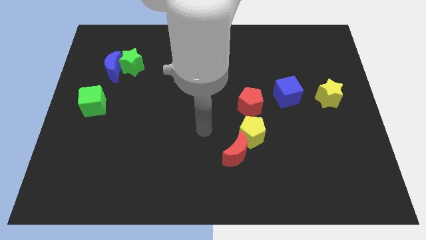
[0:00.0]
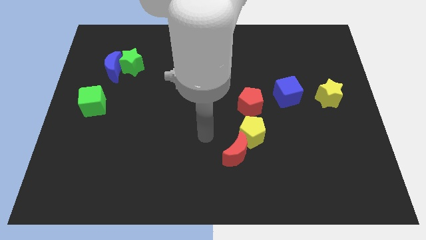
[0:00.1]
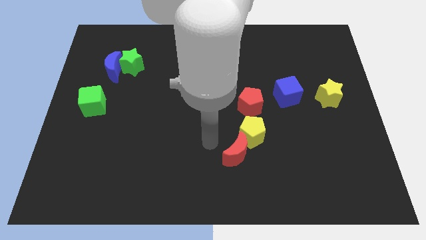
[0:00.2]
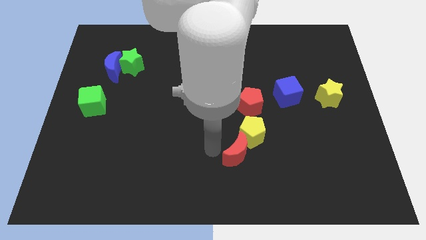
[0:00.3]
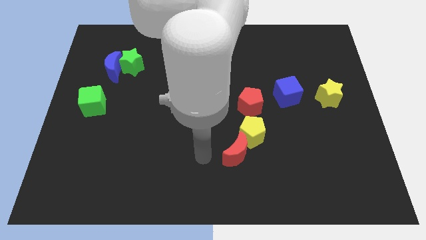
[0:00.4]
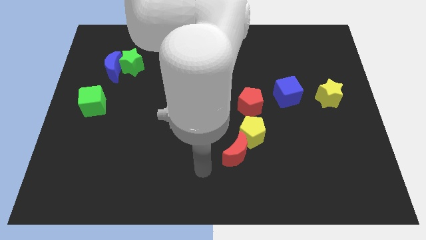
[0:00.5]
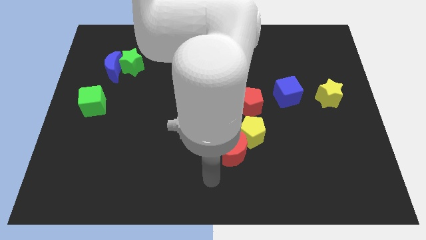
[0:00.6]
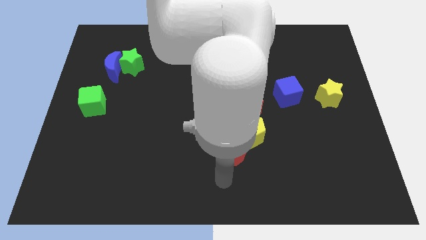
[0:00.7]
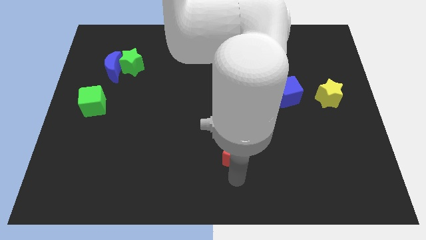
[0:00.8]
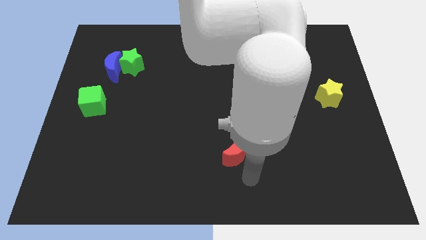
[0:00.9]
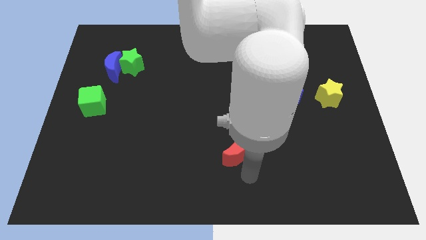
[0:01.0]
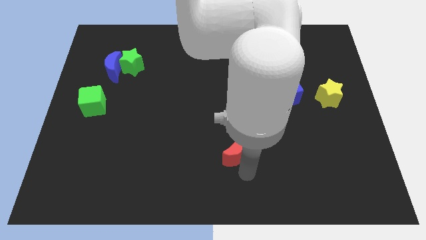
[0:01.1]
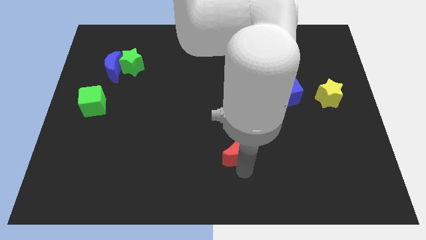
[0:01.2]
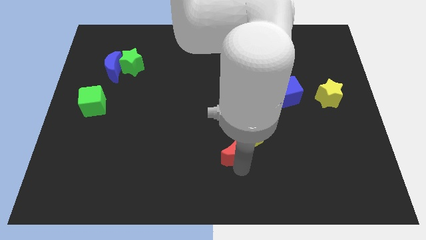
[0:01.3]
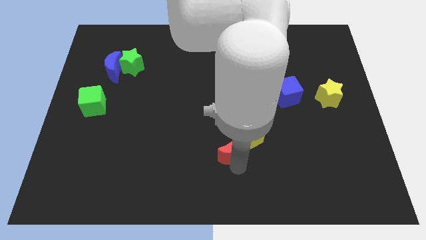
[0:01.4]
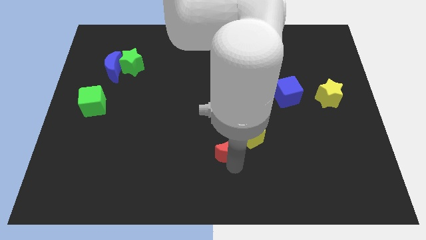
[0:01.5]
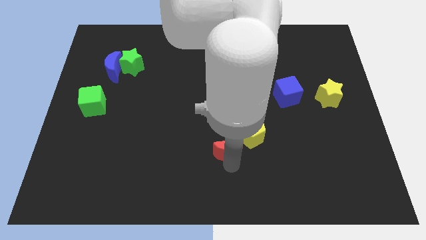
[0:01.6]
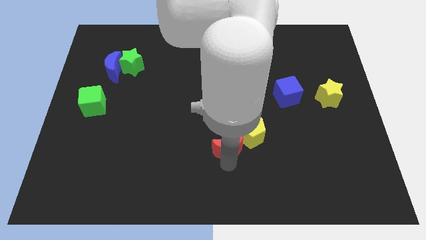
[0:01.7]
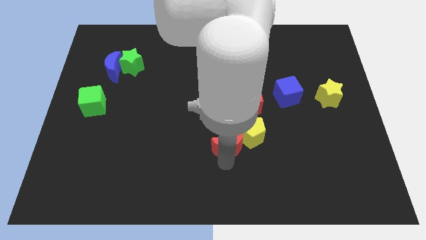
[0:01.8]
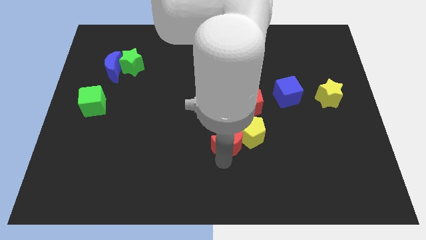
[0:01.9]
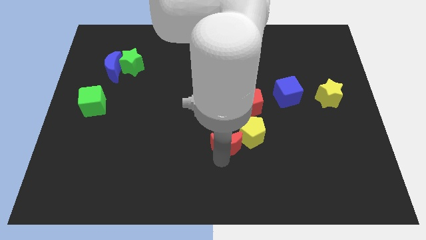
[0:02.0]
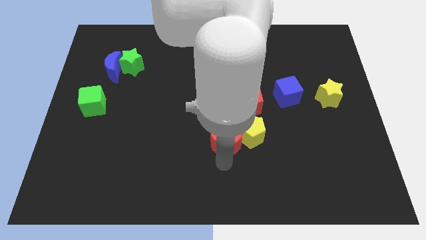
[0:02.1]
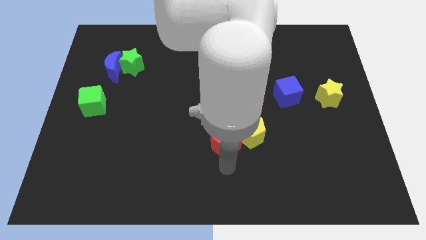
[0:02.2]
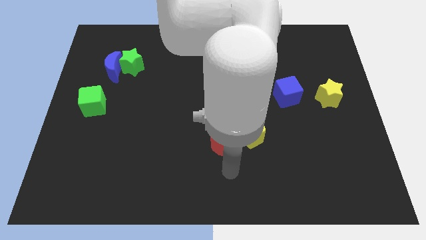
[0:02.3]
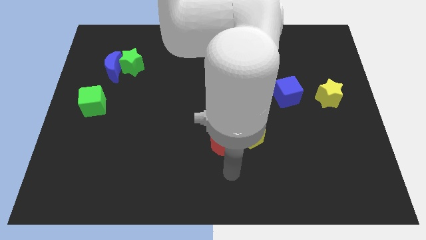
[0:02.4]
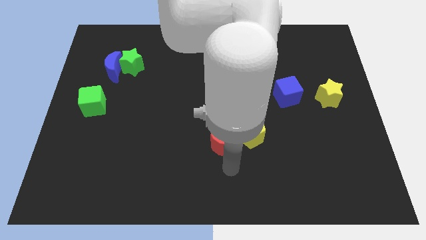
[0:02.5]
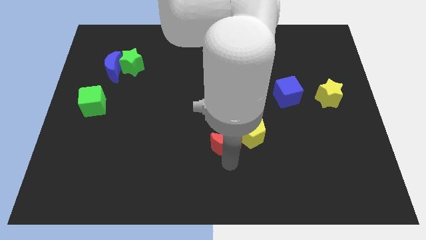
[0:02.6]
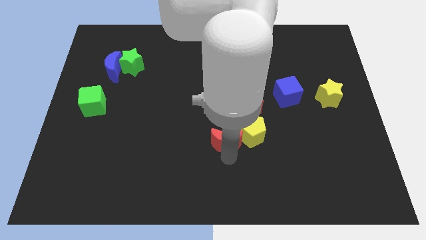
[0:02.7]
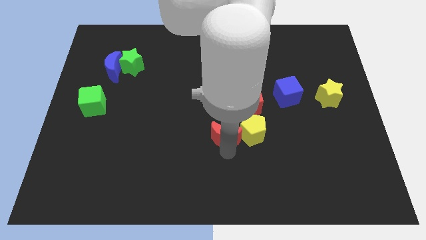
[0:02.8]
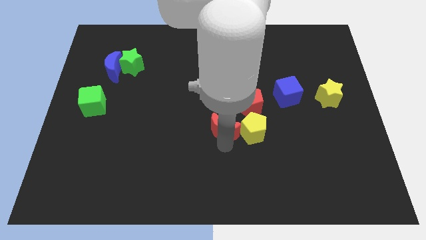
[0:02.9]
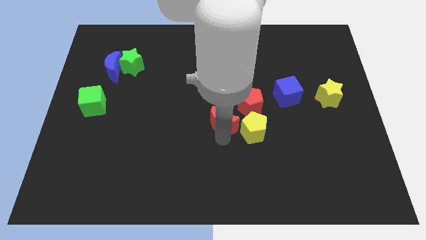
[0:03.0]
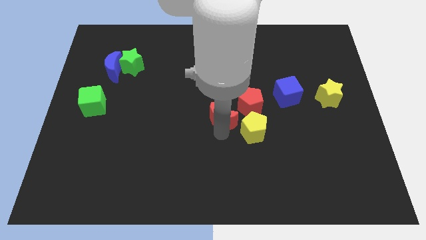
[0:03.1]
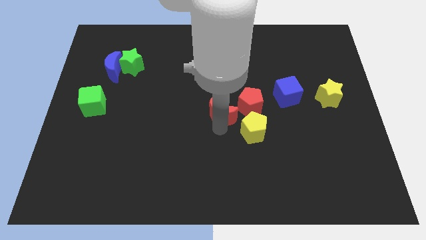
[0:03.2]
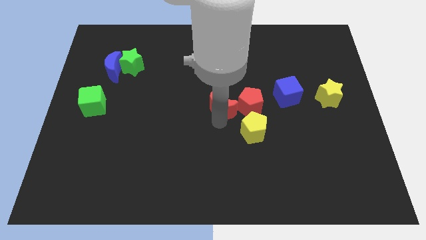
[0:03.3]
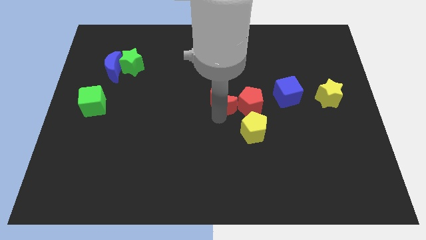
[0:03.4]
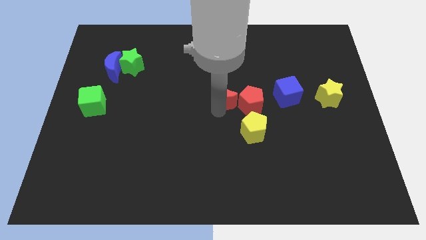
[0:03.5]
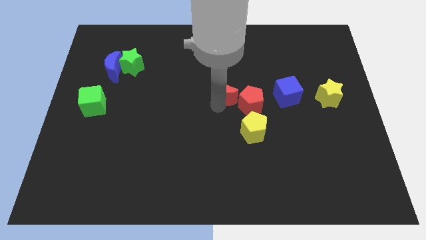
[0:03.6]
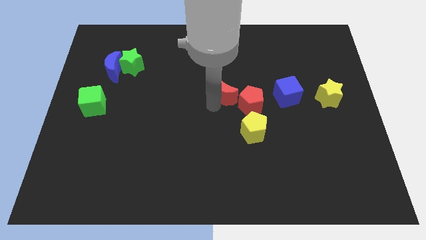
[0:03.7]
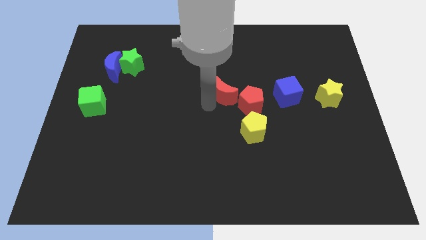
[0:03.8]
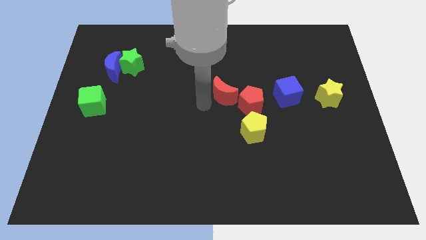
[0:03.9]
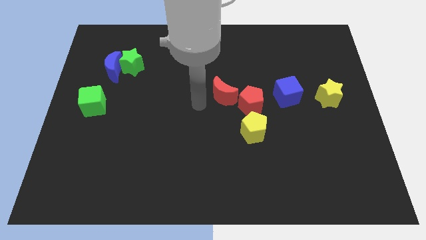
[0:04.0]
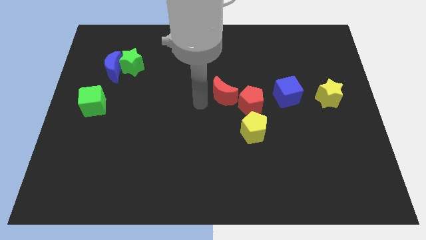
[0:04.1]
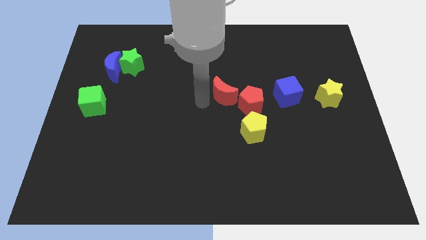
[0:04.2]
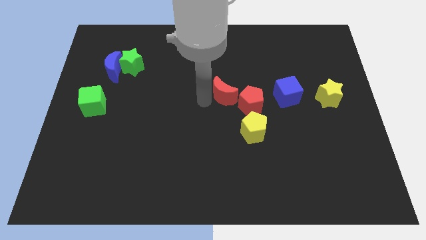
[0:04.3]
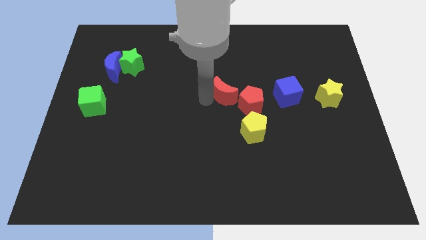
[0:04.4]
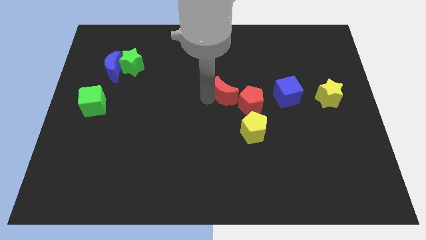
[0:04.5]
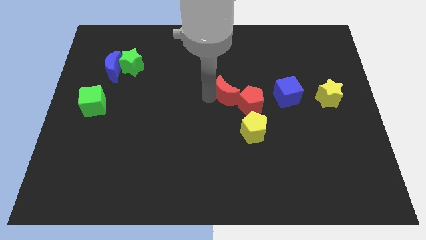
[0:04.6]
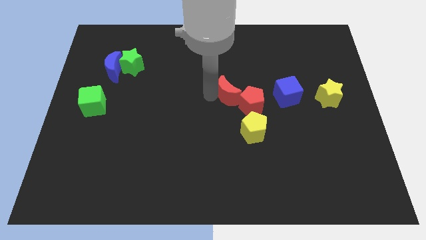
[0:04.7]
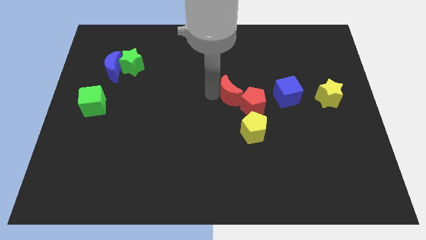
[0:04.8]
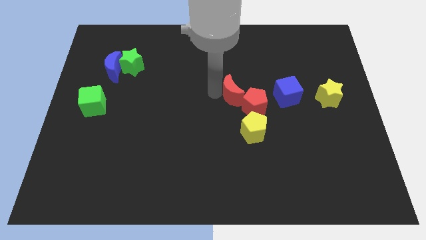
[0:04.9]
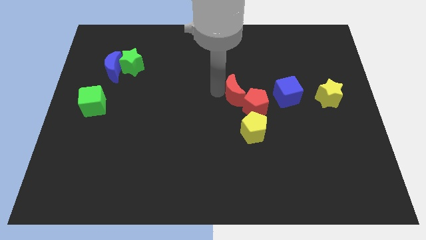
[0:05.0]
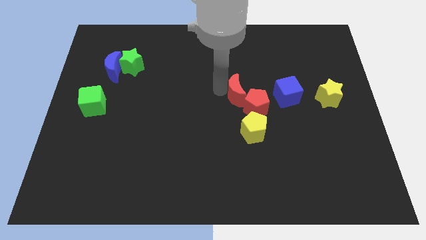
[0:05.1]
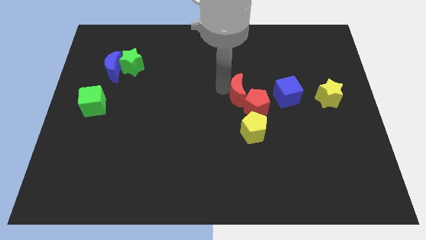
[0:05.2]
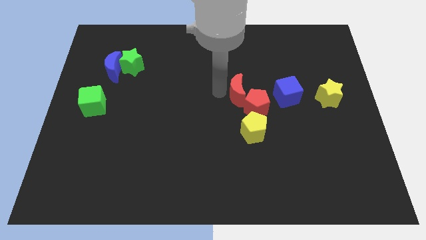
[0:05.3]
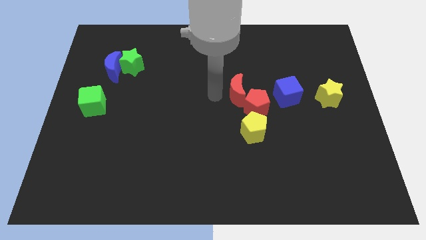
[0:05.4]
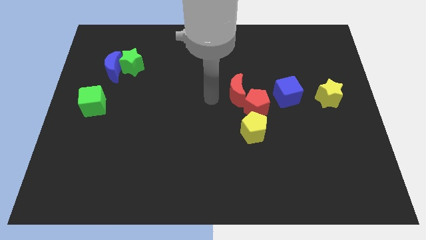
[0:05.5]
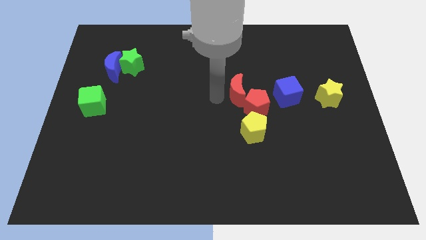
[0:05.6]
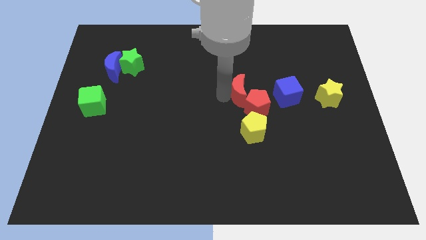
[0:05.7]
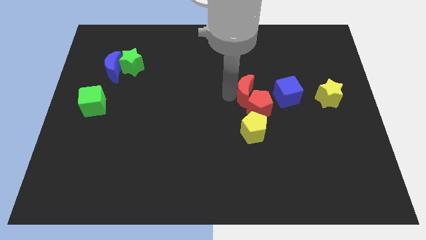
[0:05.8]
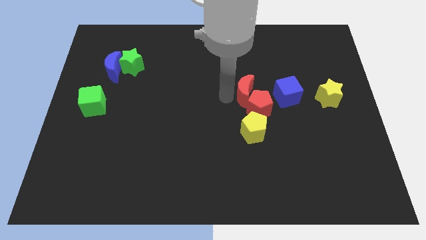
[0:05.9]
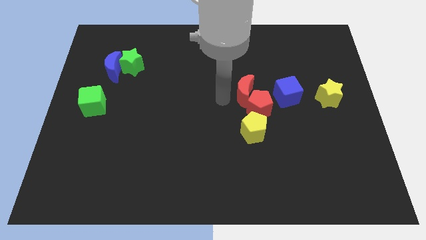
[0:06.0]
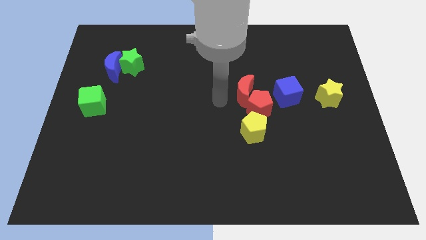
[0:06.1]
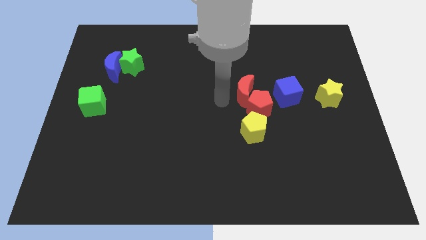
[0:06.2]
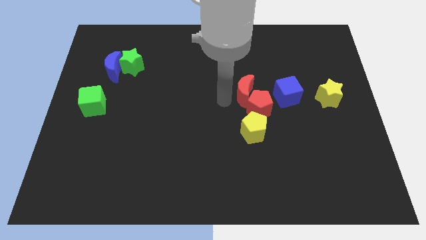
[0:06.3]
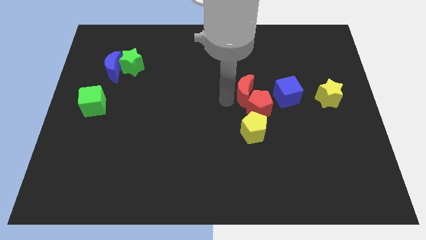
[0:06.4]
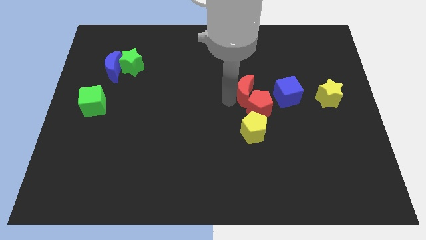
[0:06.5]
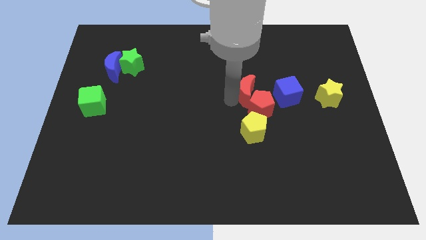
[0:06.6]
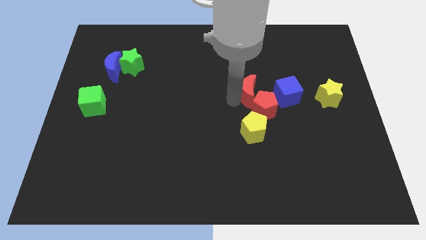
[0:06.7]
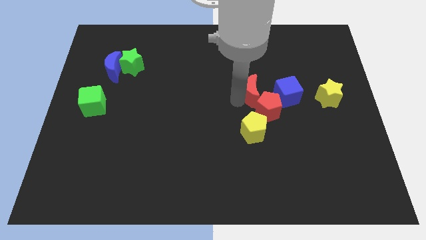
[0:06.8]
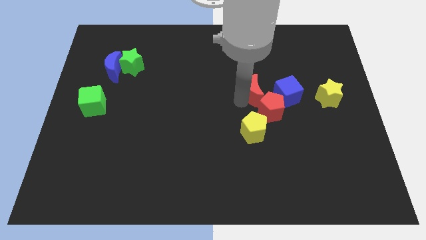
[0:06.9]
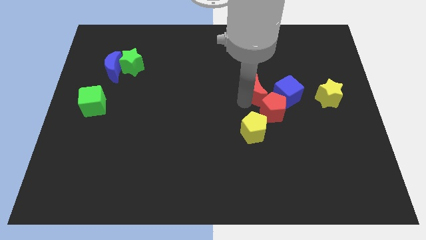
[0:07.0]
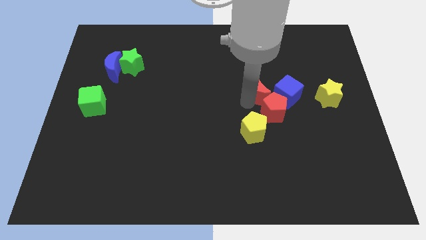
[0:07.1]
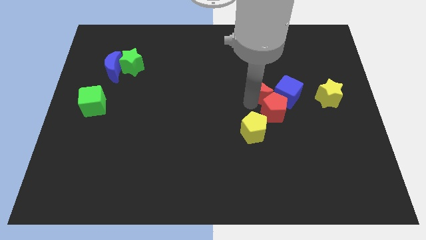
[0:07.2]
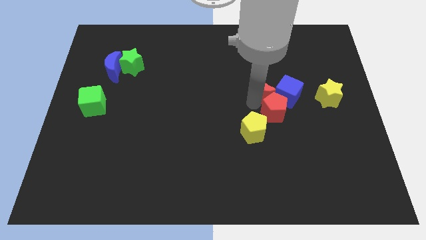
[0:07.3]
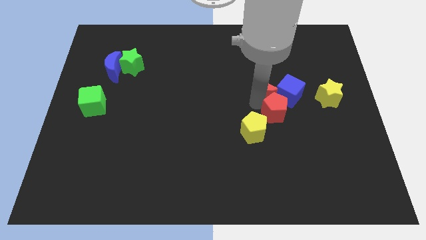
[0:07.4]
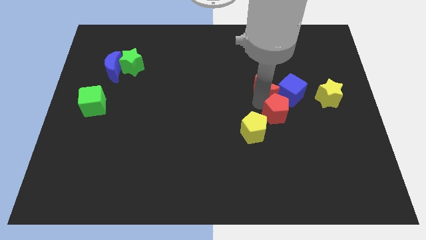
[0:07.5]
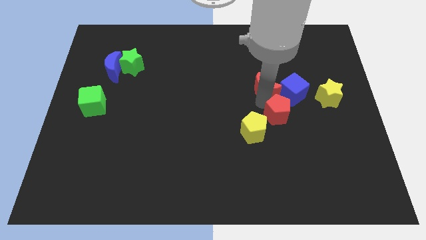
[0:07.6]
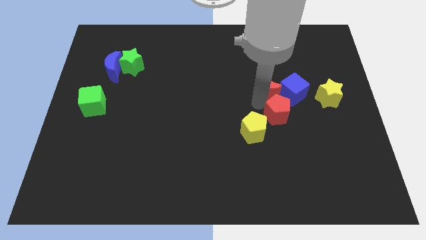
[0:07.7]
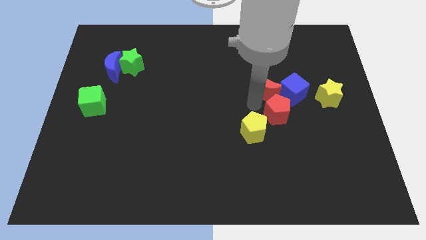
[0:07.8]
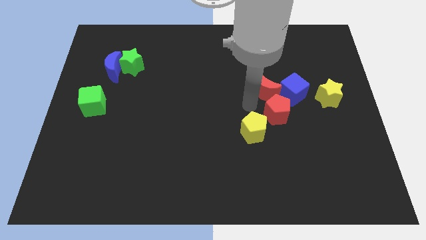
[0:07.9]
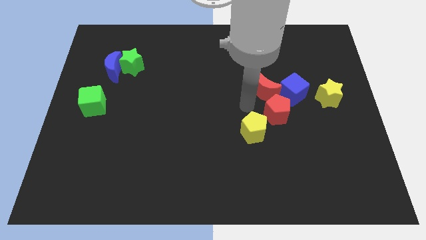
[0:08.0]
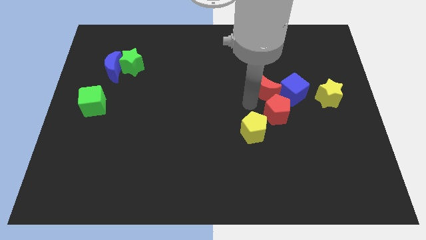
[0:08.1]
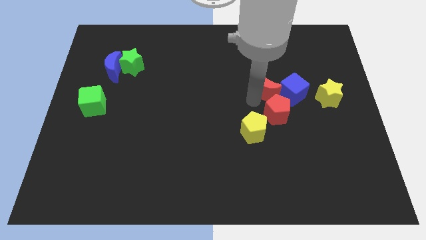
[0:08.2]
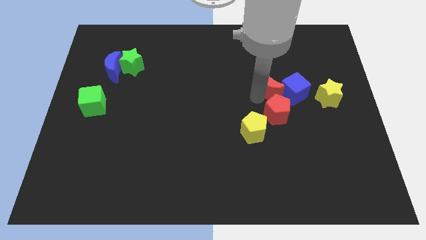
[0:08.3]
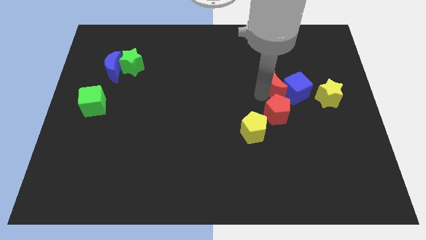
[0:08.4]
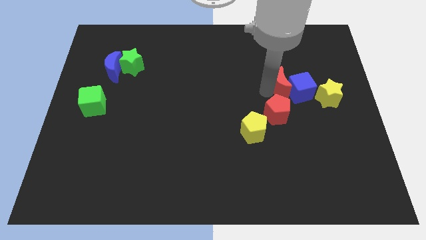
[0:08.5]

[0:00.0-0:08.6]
move the red moon up and to the right
